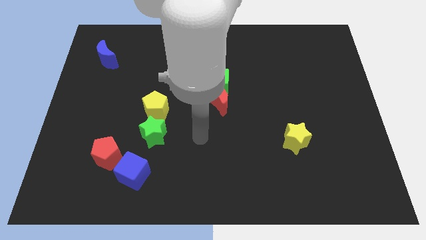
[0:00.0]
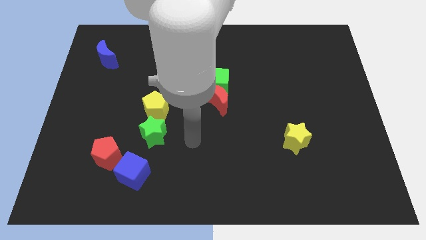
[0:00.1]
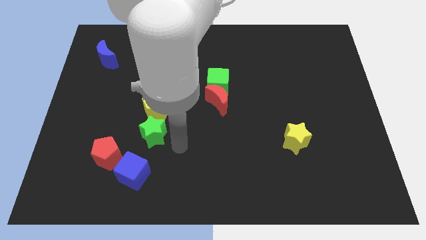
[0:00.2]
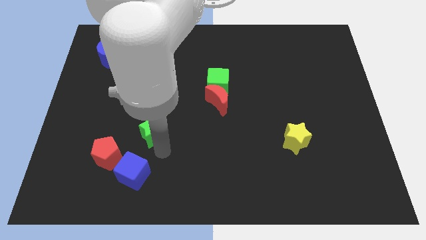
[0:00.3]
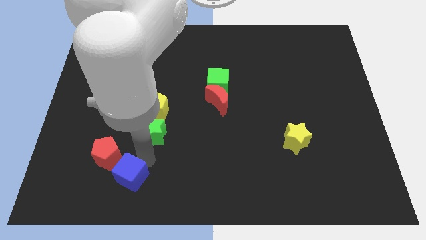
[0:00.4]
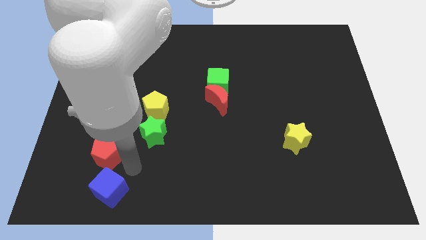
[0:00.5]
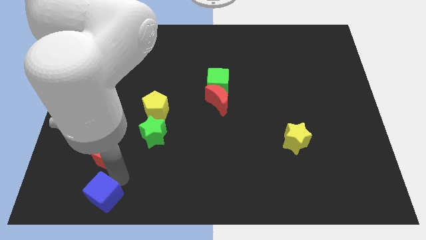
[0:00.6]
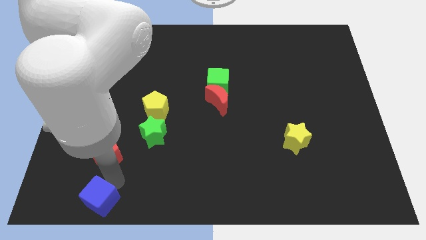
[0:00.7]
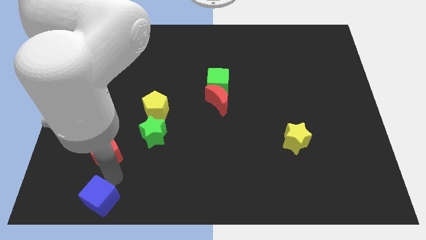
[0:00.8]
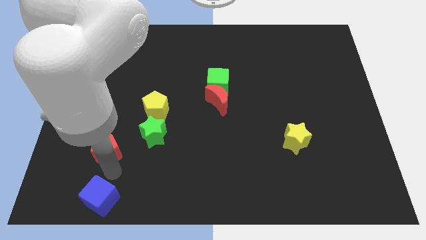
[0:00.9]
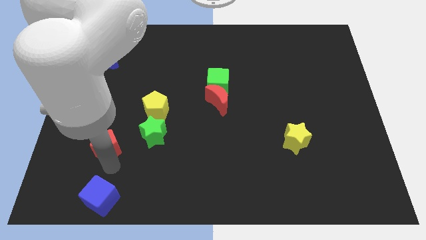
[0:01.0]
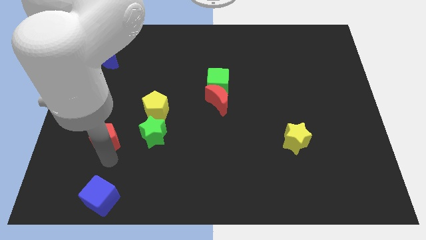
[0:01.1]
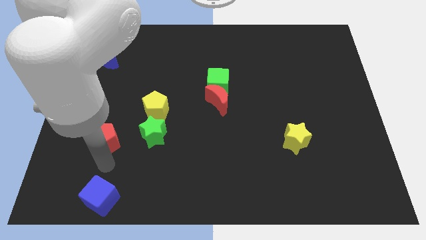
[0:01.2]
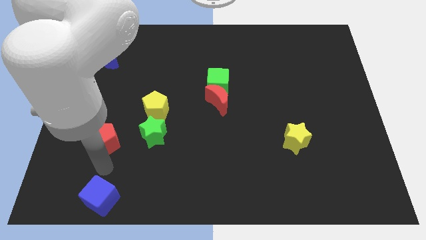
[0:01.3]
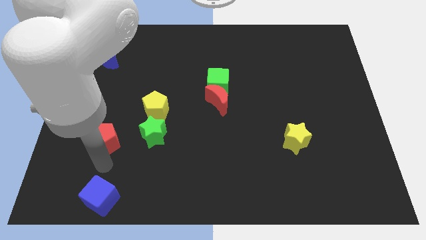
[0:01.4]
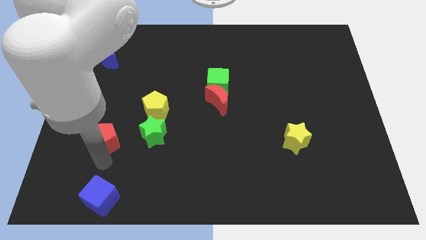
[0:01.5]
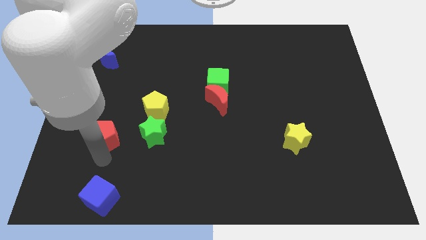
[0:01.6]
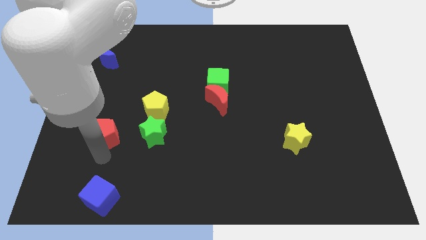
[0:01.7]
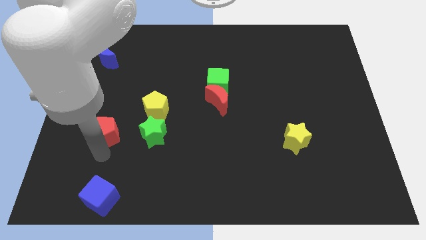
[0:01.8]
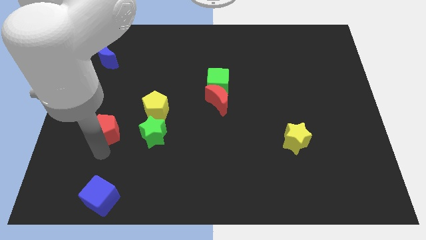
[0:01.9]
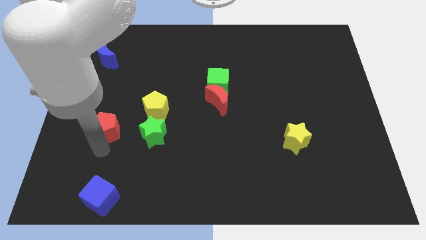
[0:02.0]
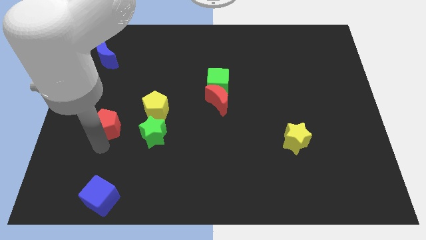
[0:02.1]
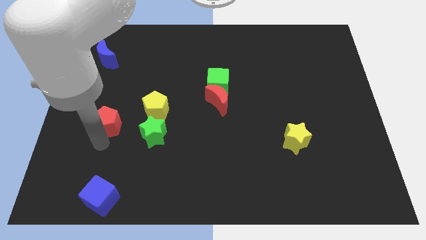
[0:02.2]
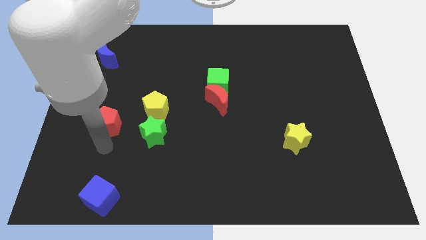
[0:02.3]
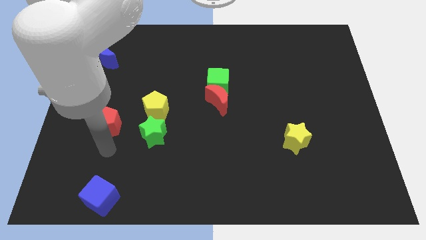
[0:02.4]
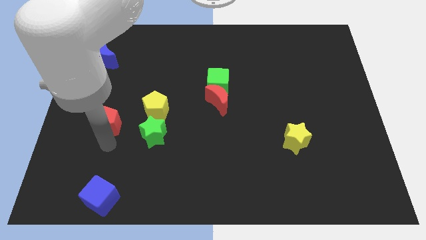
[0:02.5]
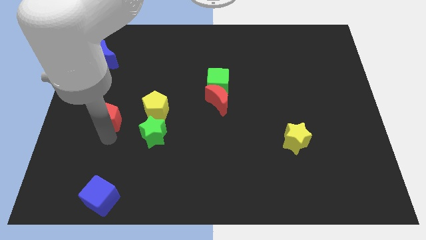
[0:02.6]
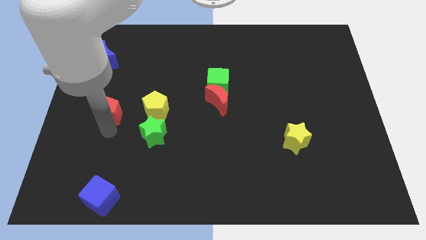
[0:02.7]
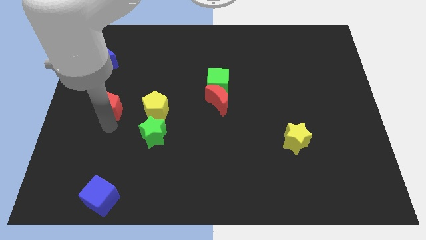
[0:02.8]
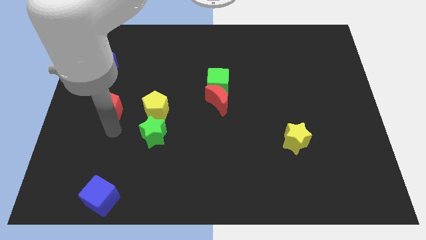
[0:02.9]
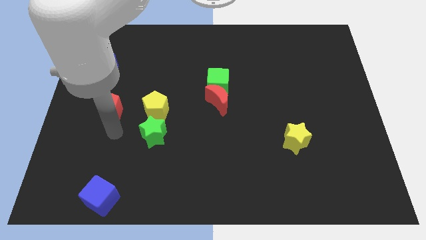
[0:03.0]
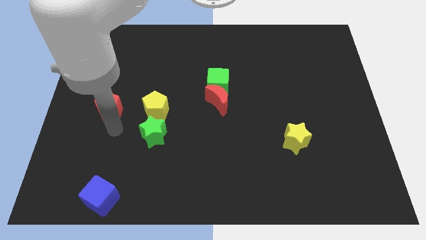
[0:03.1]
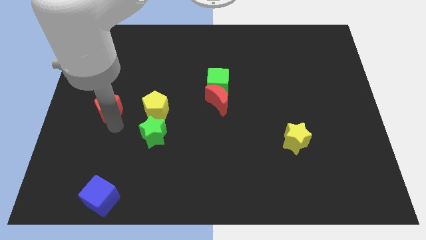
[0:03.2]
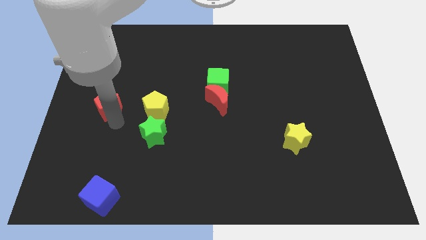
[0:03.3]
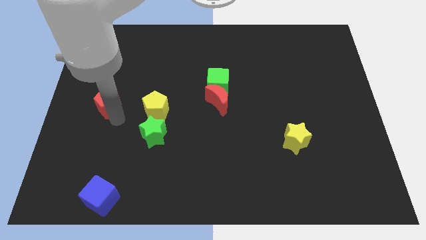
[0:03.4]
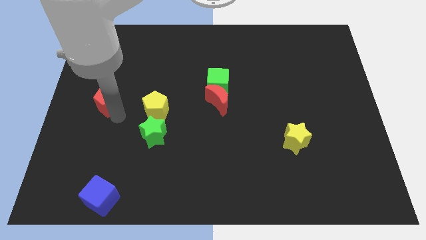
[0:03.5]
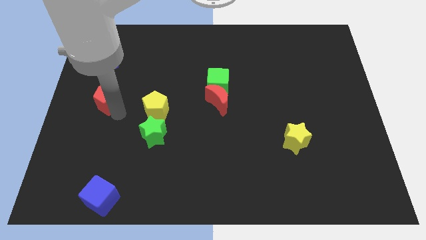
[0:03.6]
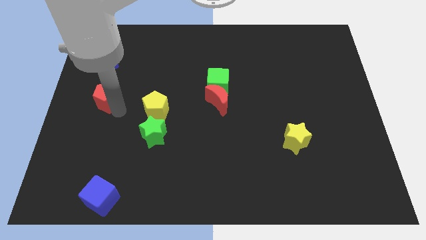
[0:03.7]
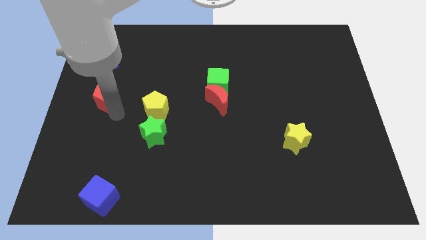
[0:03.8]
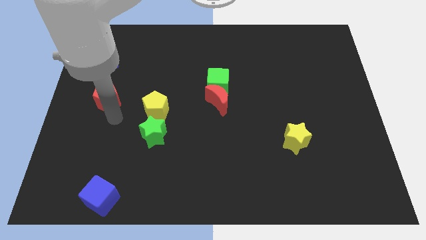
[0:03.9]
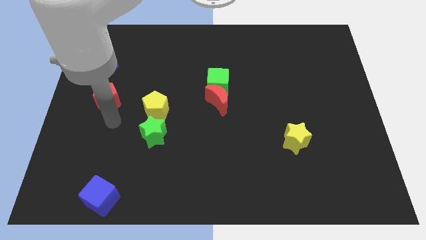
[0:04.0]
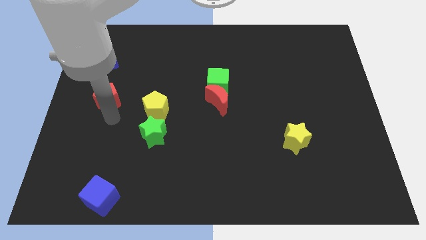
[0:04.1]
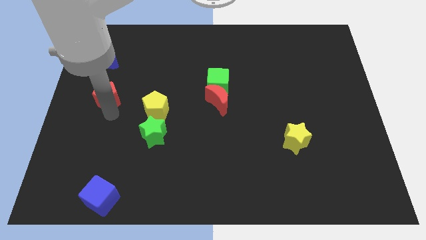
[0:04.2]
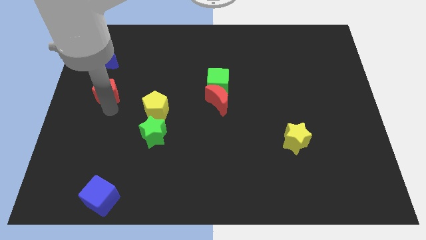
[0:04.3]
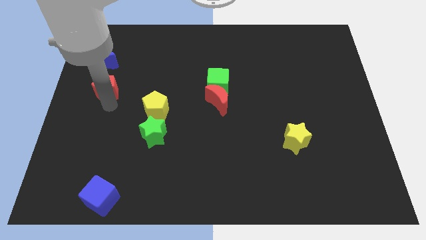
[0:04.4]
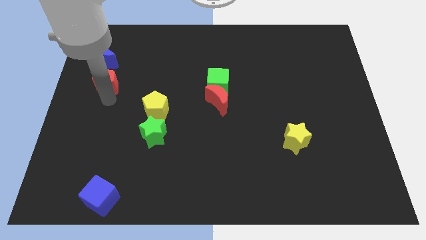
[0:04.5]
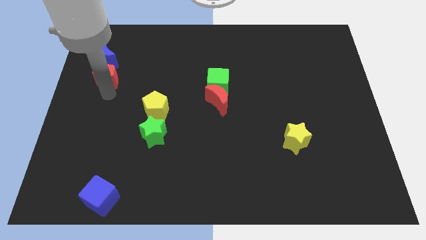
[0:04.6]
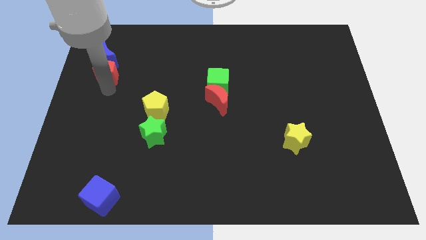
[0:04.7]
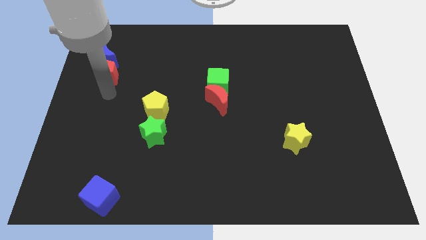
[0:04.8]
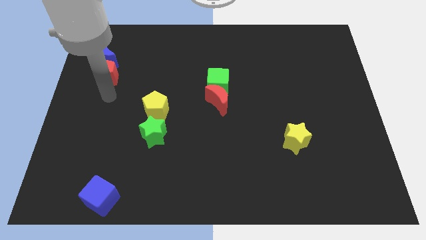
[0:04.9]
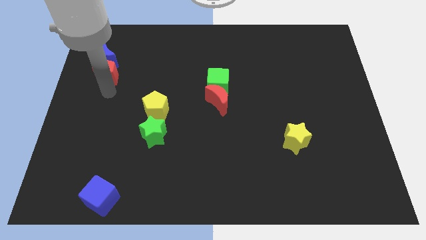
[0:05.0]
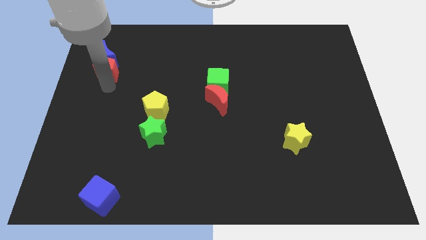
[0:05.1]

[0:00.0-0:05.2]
put the red pentagon next to the blue moon

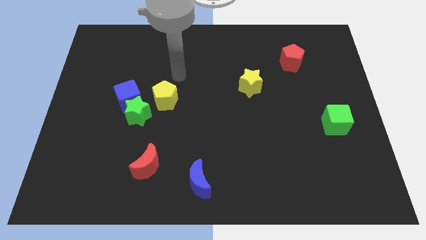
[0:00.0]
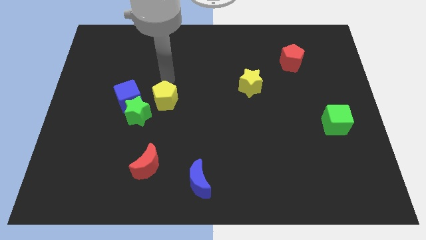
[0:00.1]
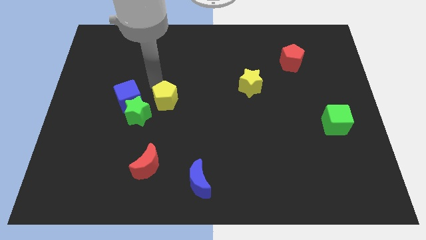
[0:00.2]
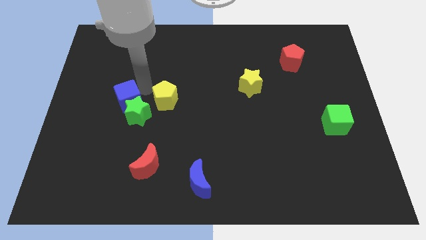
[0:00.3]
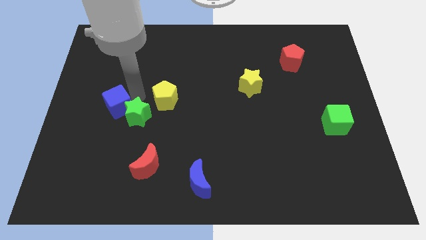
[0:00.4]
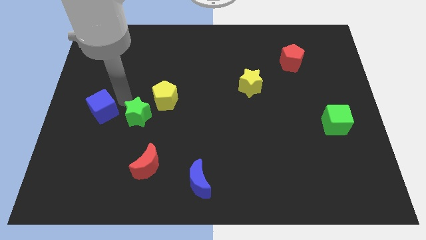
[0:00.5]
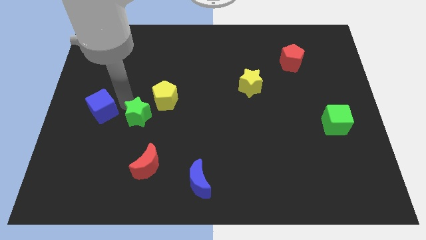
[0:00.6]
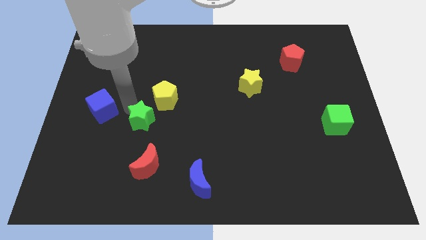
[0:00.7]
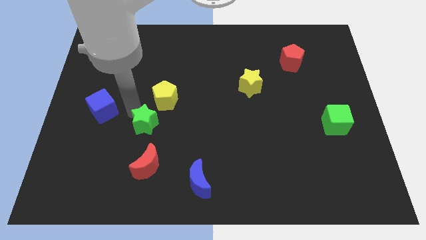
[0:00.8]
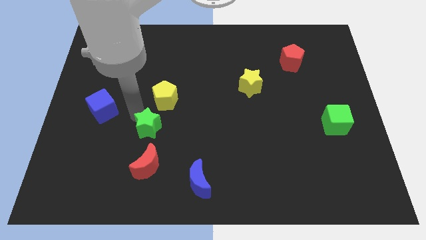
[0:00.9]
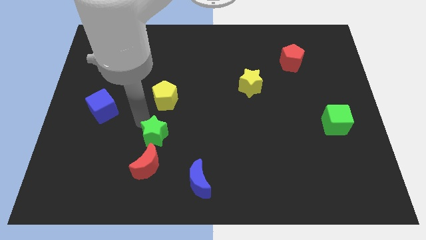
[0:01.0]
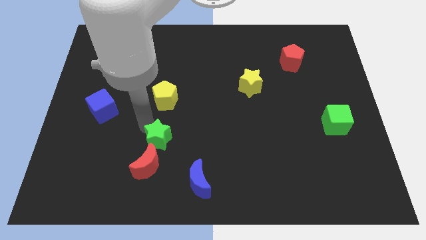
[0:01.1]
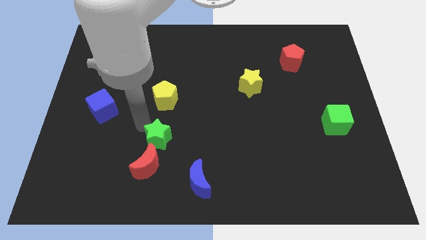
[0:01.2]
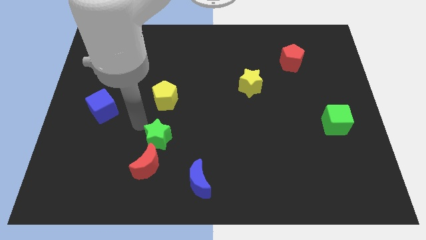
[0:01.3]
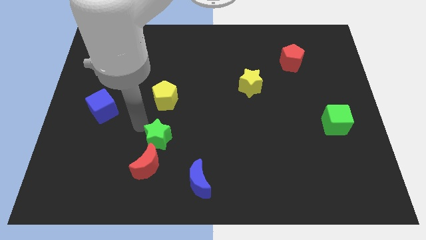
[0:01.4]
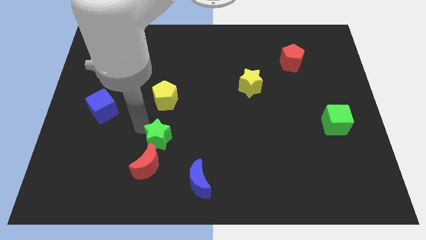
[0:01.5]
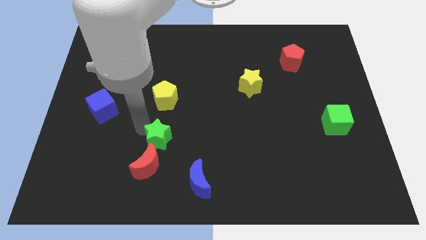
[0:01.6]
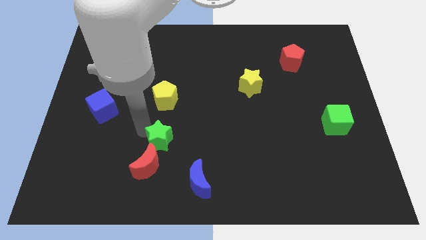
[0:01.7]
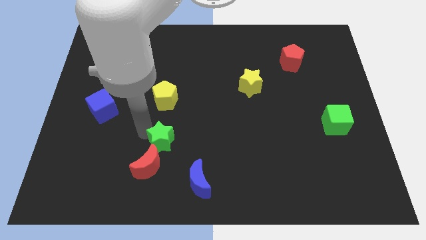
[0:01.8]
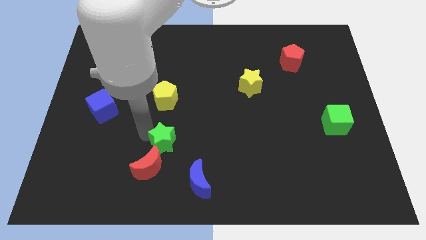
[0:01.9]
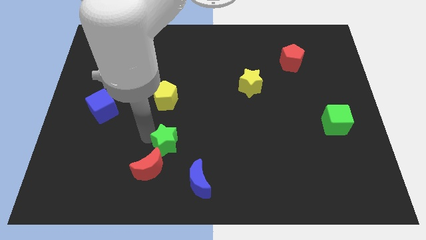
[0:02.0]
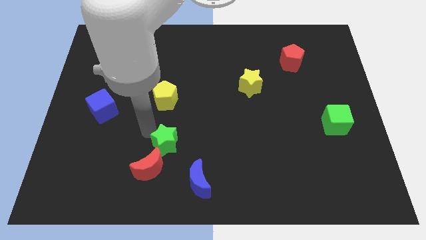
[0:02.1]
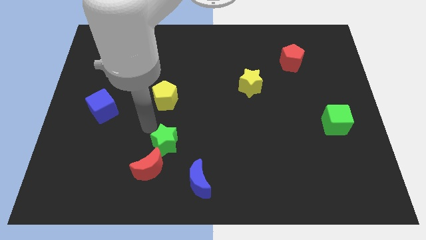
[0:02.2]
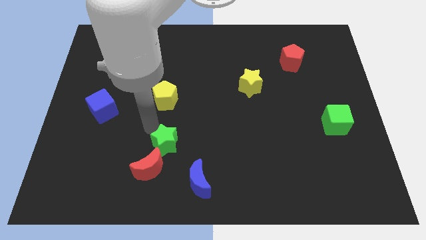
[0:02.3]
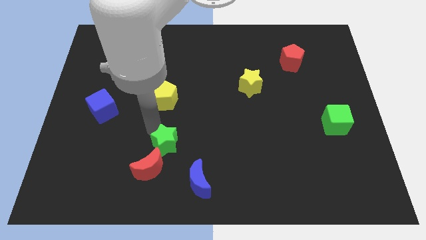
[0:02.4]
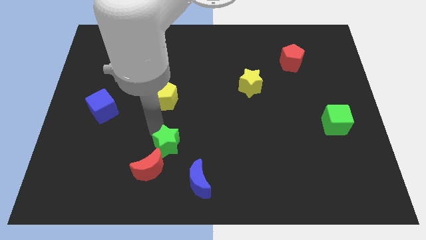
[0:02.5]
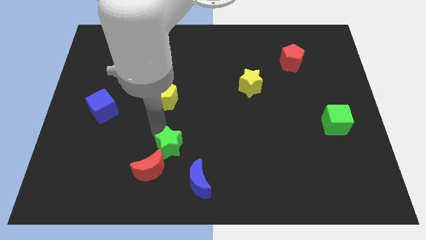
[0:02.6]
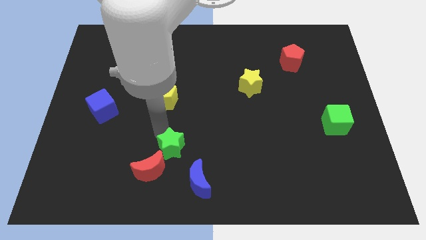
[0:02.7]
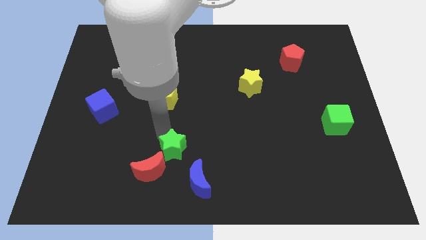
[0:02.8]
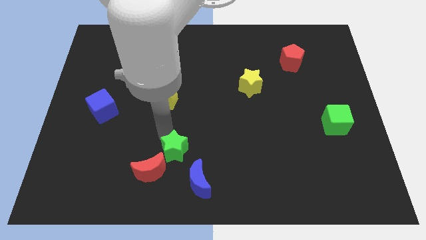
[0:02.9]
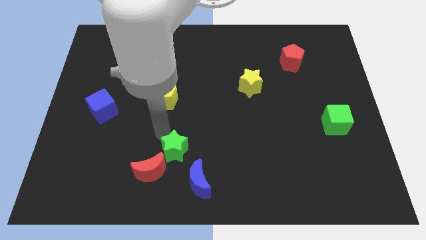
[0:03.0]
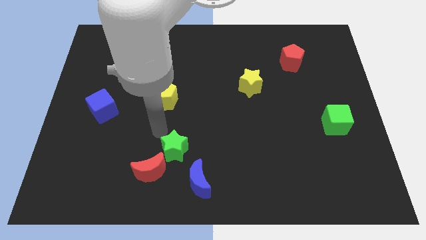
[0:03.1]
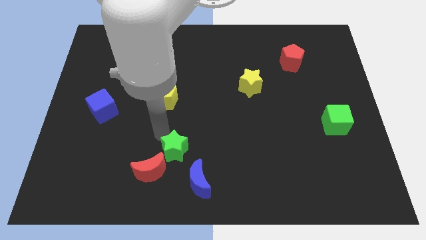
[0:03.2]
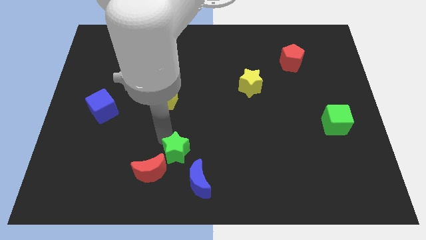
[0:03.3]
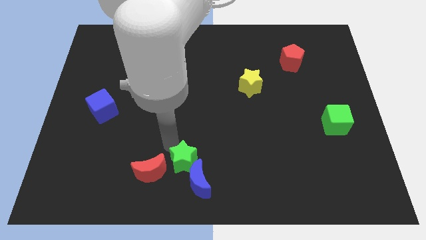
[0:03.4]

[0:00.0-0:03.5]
slide the green star next to the blue moon
